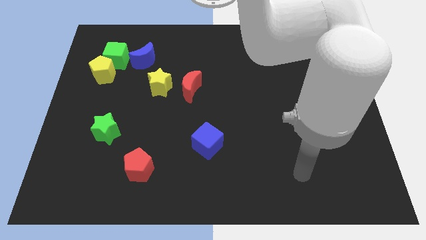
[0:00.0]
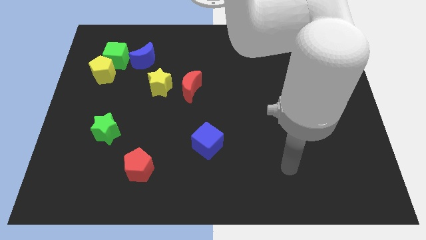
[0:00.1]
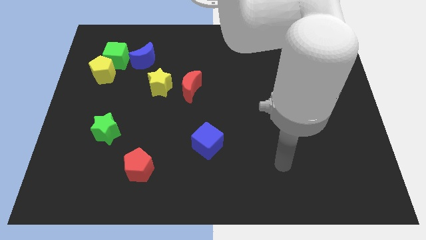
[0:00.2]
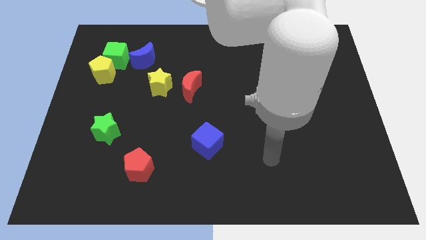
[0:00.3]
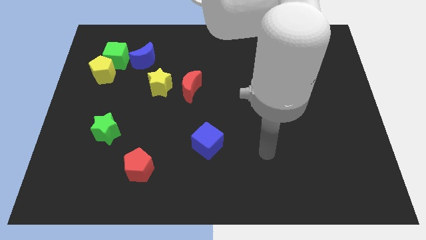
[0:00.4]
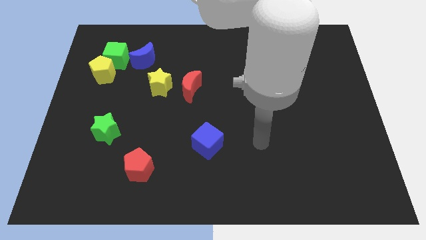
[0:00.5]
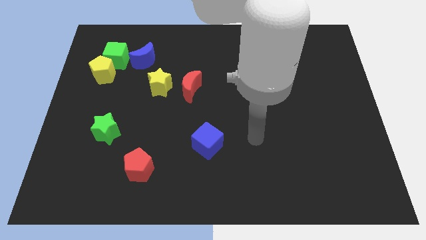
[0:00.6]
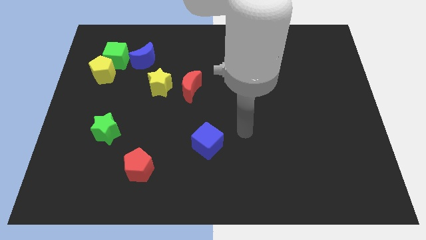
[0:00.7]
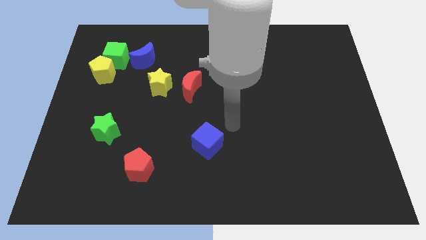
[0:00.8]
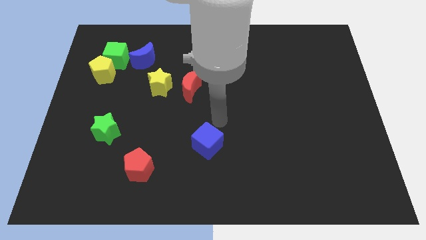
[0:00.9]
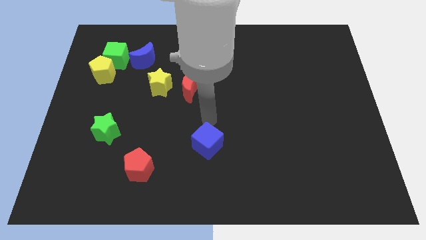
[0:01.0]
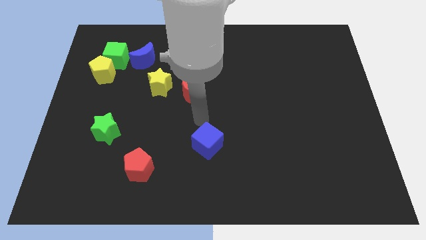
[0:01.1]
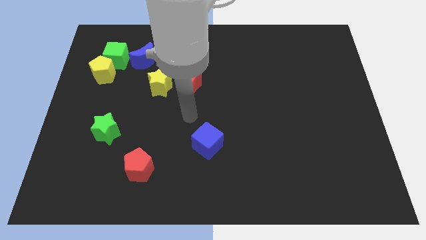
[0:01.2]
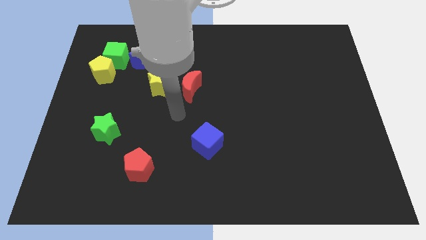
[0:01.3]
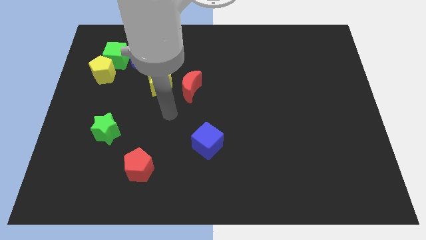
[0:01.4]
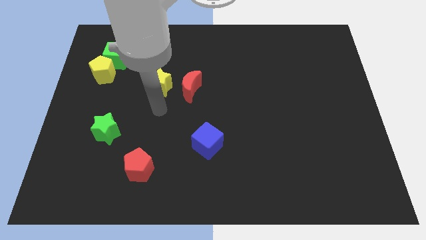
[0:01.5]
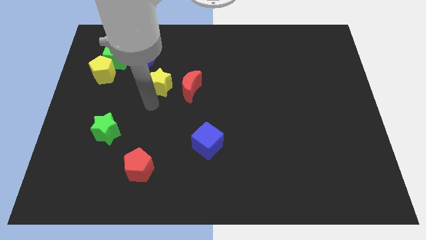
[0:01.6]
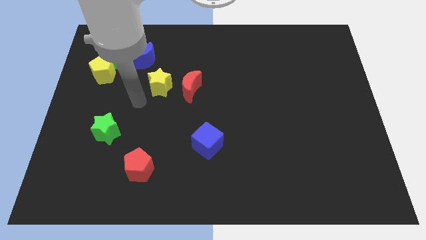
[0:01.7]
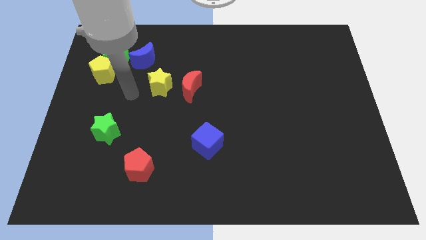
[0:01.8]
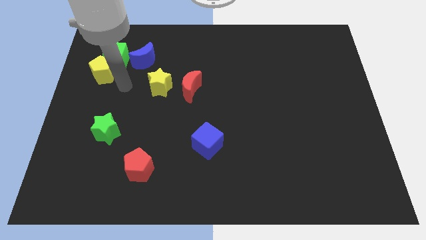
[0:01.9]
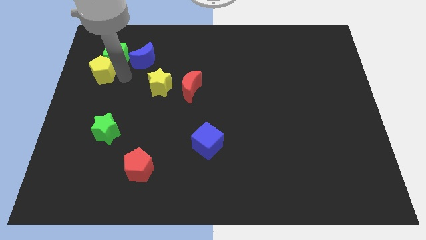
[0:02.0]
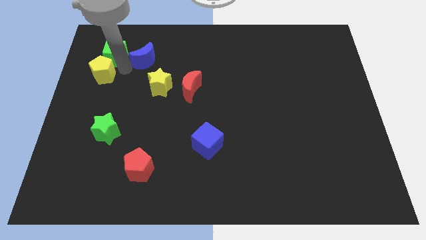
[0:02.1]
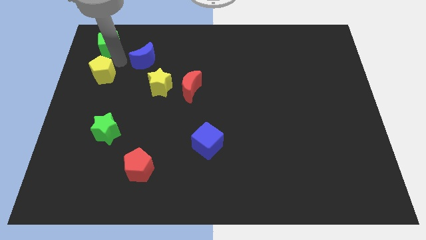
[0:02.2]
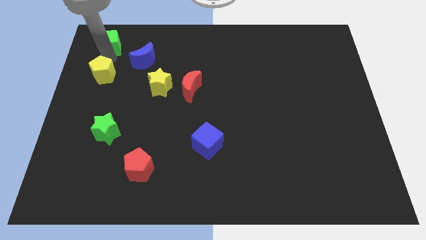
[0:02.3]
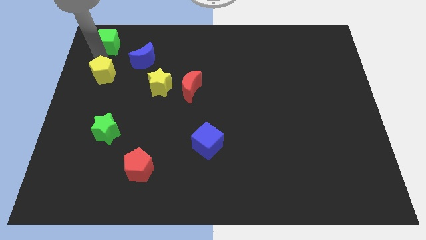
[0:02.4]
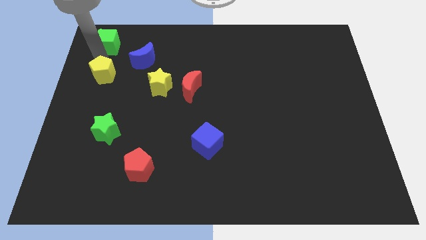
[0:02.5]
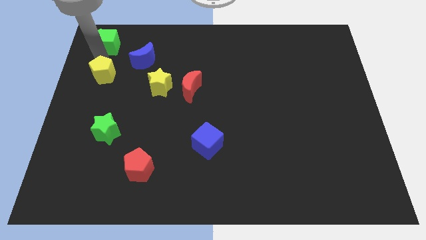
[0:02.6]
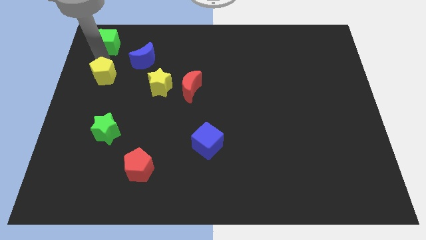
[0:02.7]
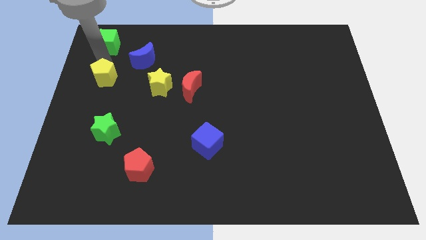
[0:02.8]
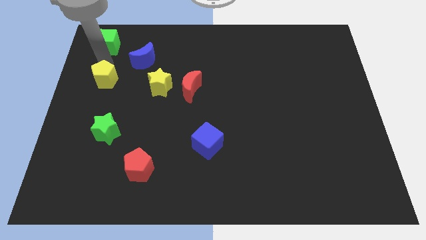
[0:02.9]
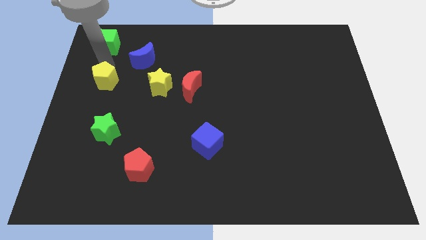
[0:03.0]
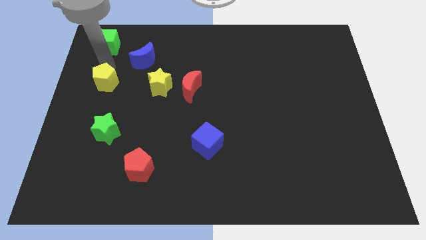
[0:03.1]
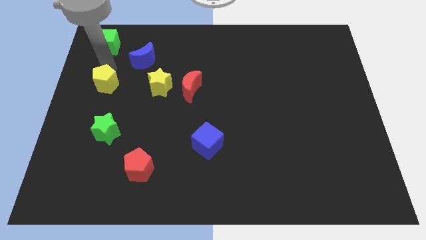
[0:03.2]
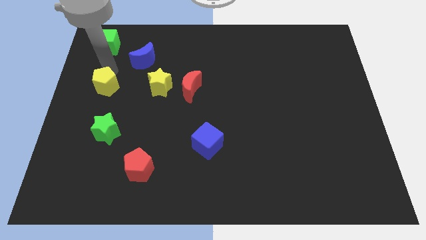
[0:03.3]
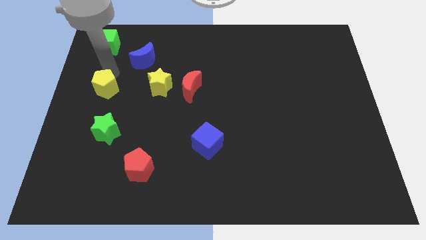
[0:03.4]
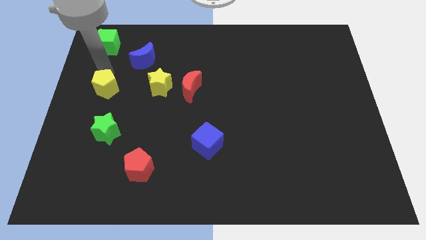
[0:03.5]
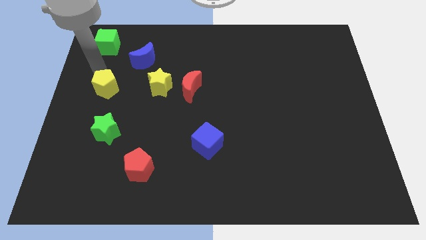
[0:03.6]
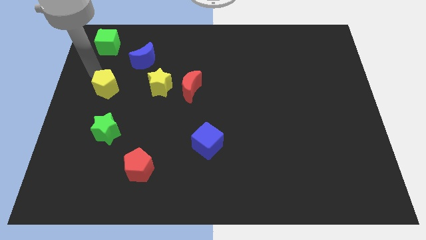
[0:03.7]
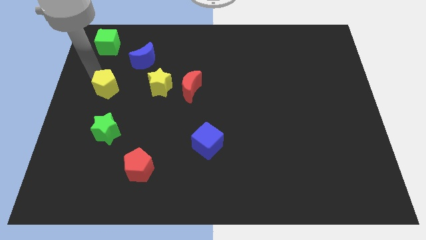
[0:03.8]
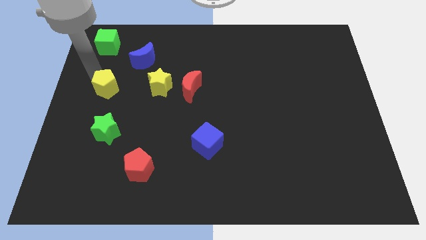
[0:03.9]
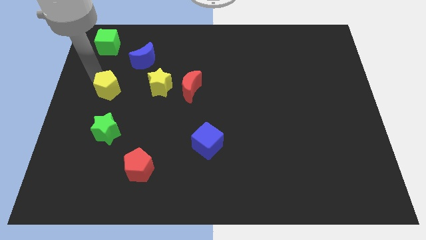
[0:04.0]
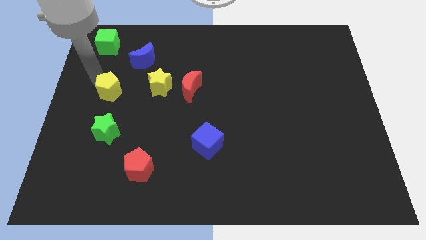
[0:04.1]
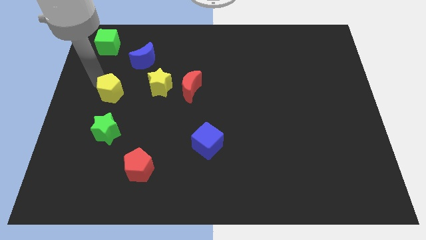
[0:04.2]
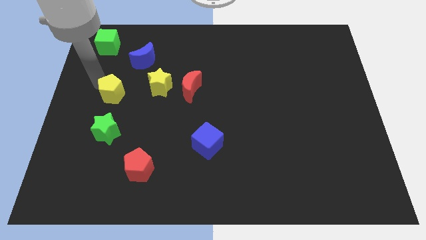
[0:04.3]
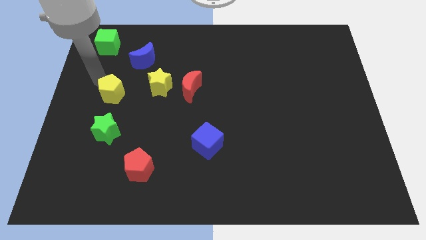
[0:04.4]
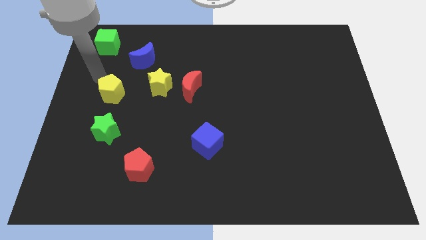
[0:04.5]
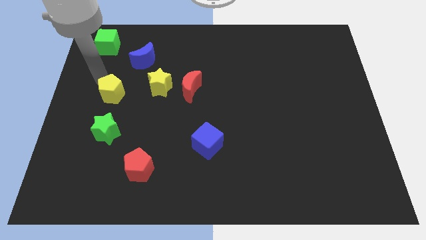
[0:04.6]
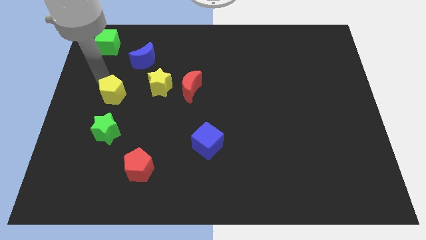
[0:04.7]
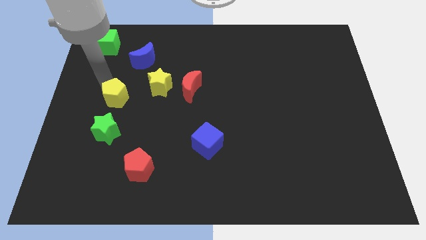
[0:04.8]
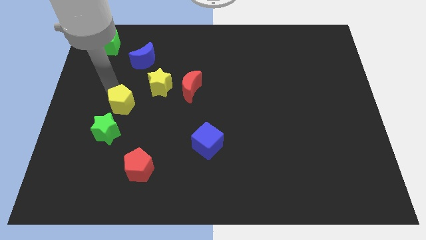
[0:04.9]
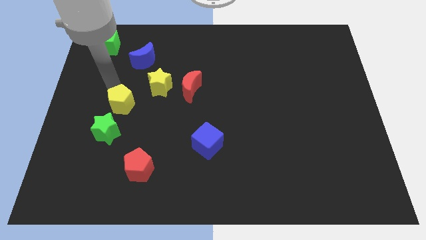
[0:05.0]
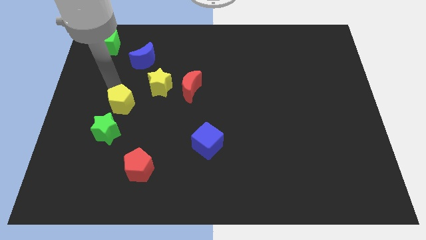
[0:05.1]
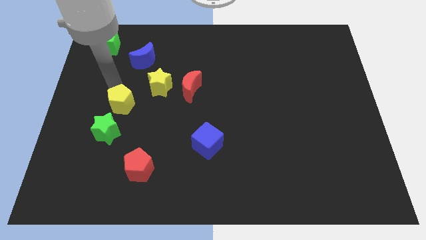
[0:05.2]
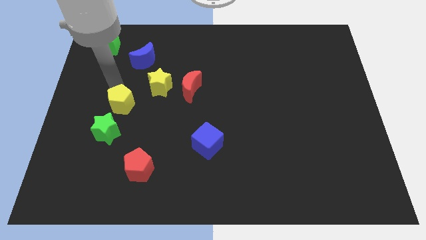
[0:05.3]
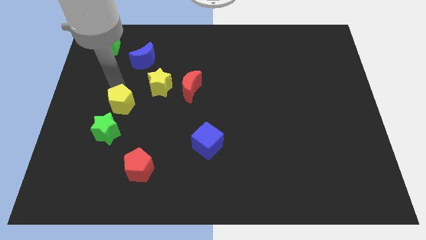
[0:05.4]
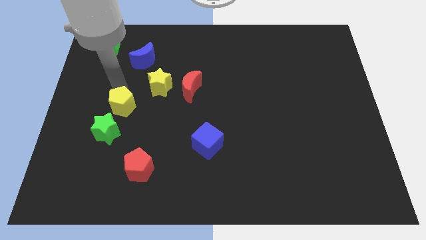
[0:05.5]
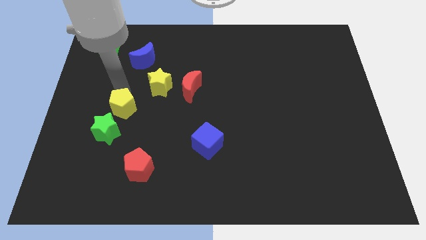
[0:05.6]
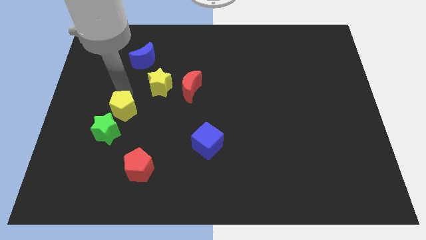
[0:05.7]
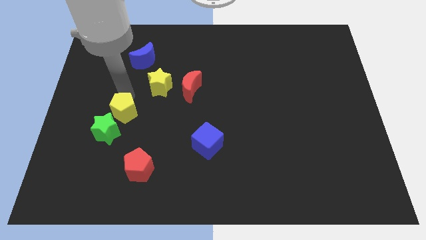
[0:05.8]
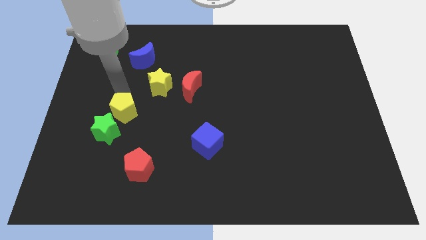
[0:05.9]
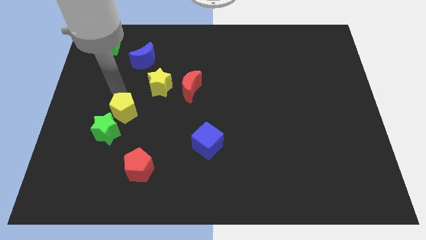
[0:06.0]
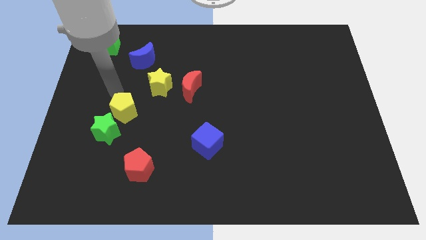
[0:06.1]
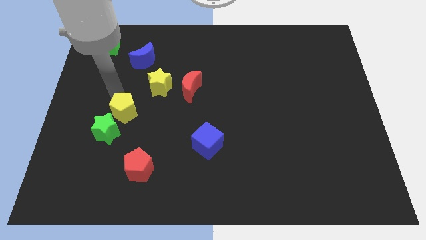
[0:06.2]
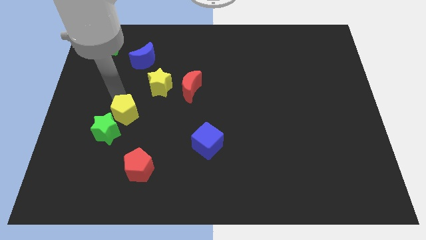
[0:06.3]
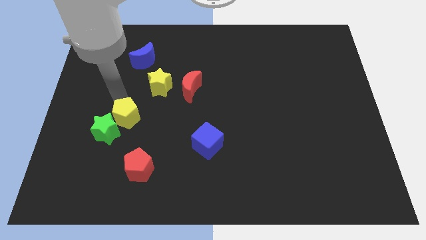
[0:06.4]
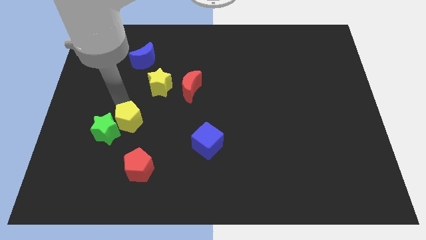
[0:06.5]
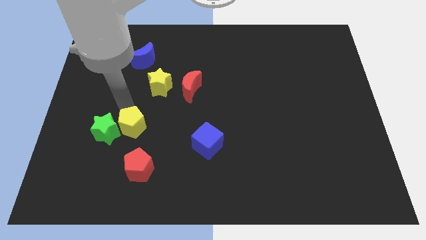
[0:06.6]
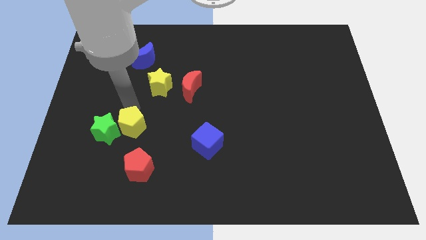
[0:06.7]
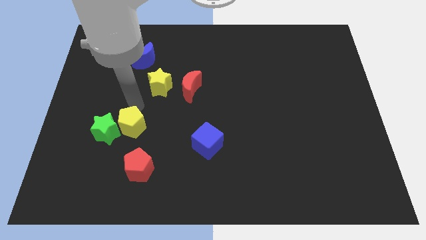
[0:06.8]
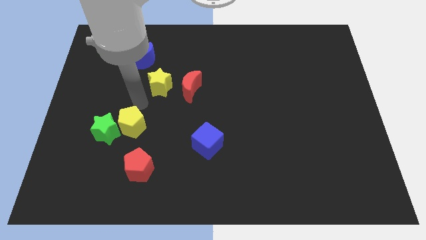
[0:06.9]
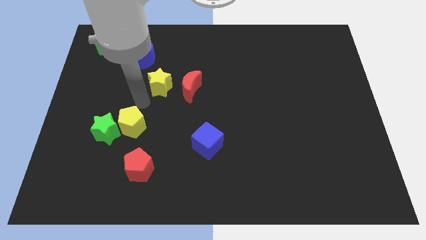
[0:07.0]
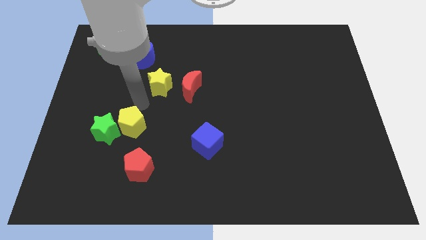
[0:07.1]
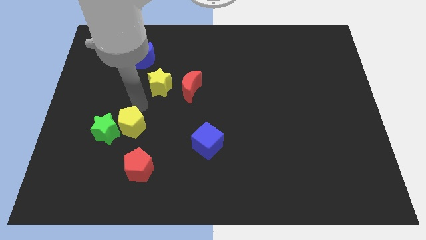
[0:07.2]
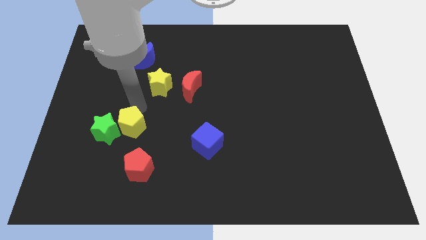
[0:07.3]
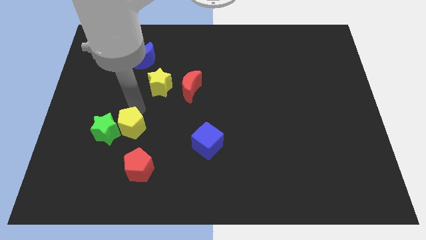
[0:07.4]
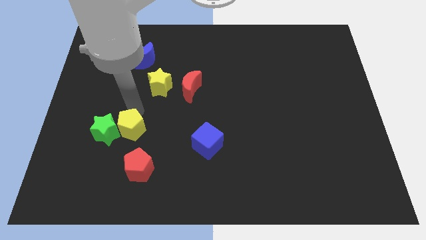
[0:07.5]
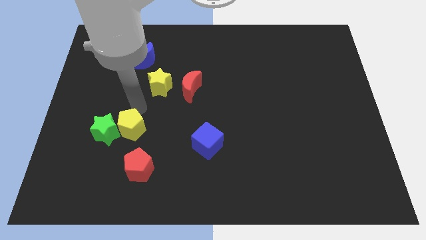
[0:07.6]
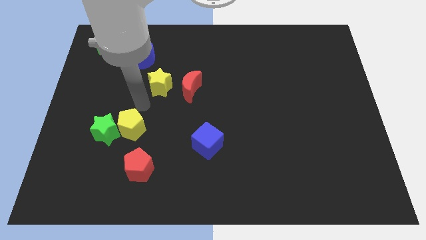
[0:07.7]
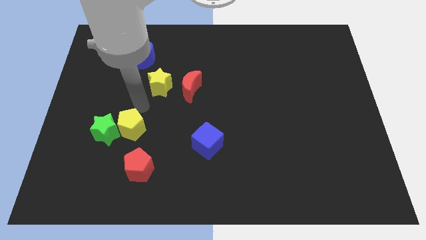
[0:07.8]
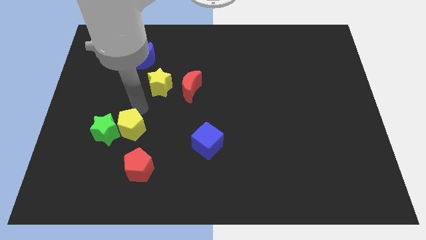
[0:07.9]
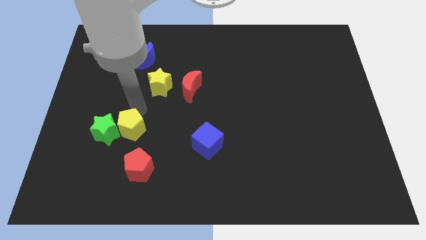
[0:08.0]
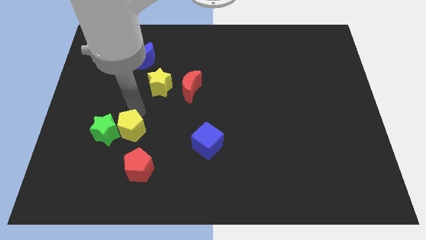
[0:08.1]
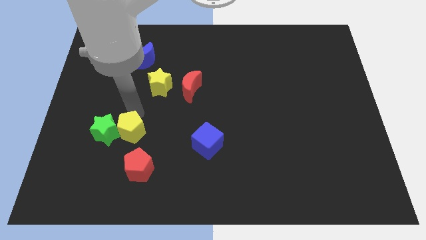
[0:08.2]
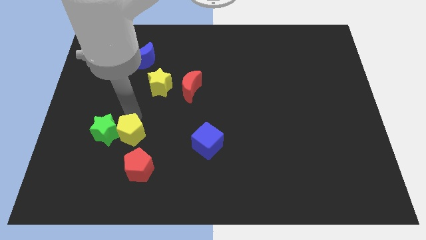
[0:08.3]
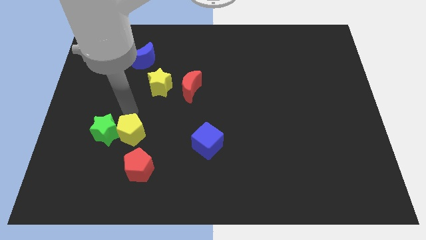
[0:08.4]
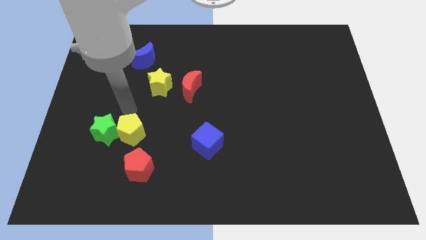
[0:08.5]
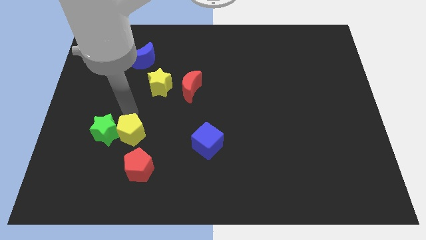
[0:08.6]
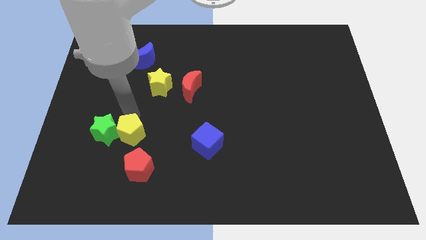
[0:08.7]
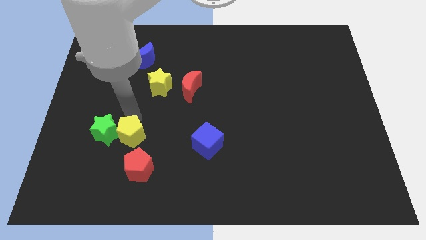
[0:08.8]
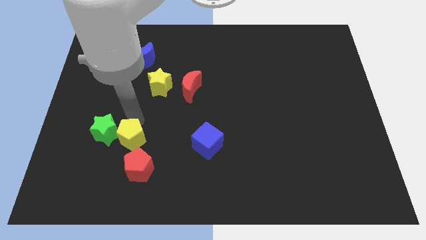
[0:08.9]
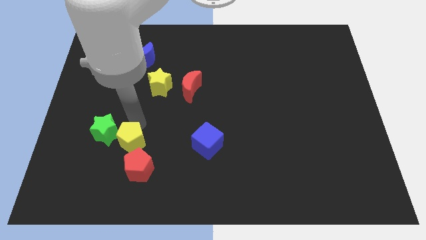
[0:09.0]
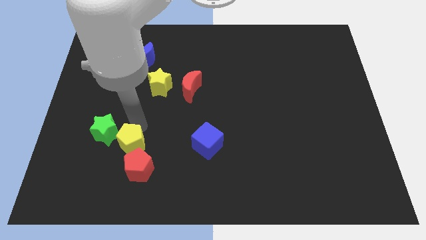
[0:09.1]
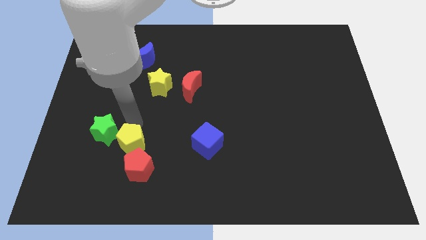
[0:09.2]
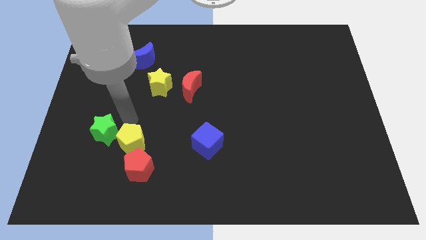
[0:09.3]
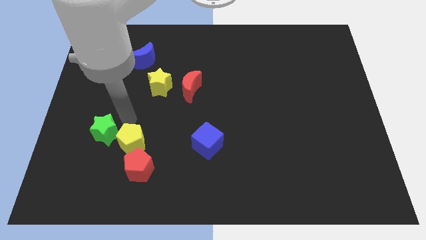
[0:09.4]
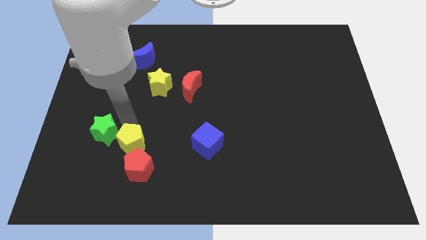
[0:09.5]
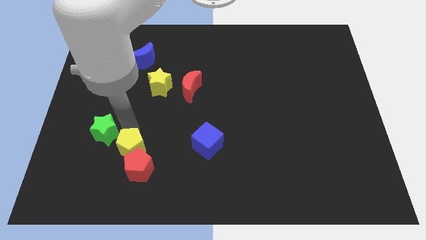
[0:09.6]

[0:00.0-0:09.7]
push the yellow pentagon close to the red pentagon
